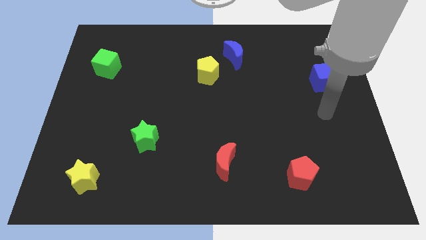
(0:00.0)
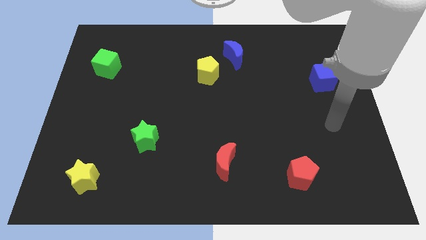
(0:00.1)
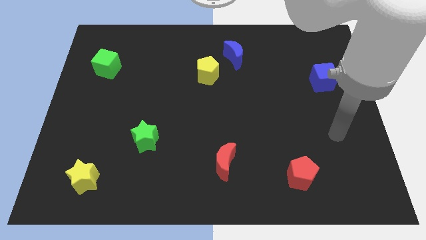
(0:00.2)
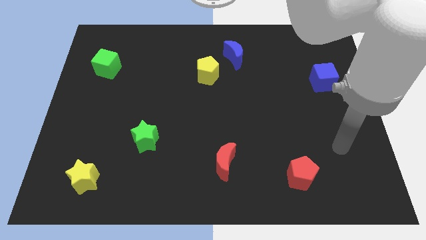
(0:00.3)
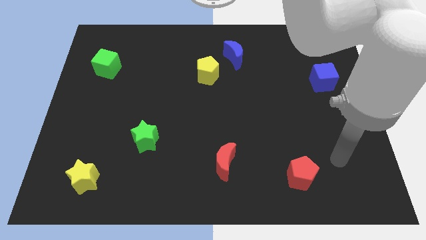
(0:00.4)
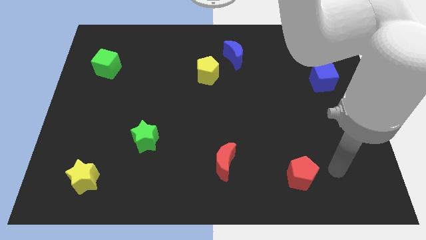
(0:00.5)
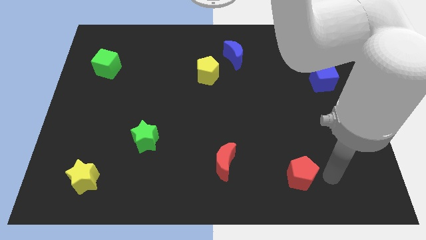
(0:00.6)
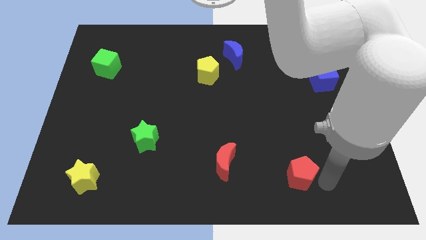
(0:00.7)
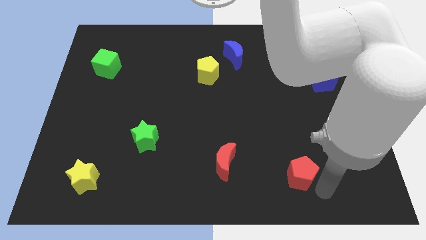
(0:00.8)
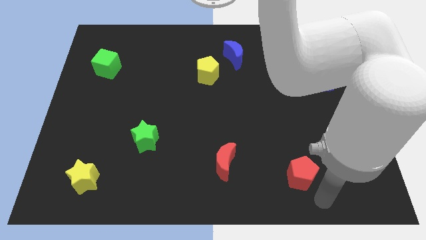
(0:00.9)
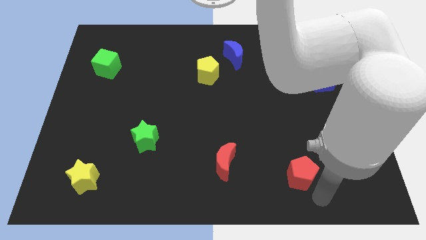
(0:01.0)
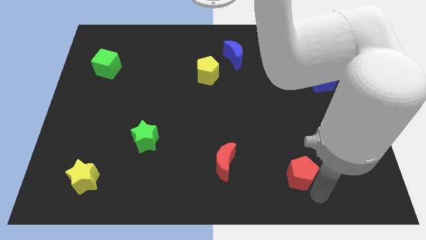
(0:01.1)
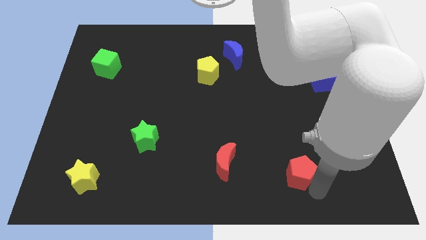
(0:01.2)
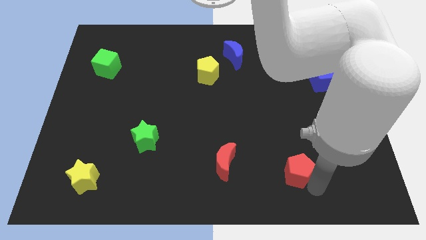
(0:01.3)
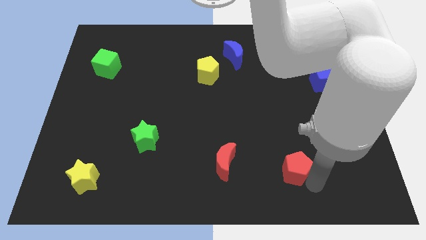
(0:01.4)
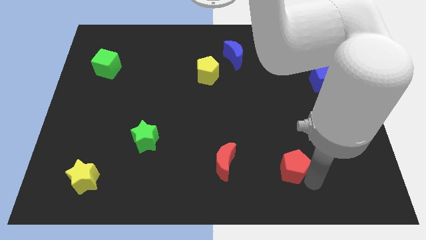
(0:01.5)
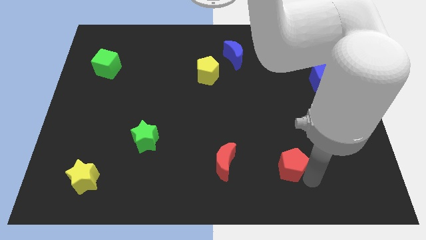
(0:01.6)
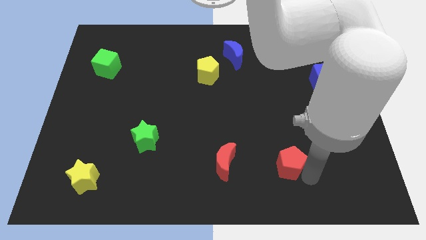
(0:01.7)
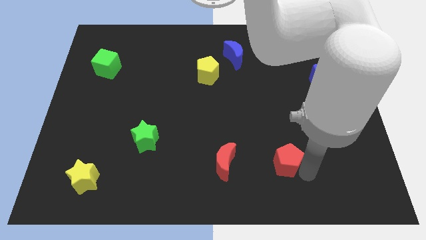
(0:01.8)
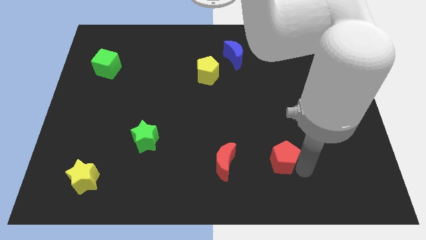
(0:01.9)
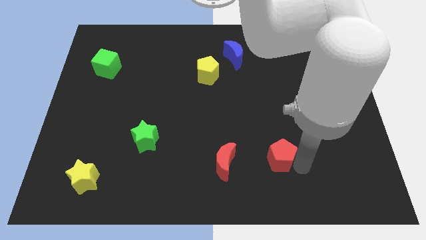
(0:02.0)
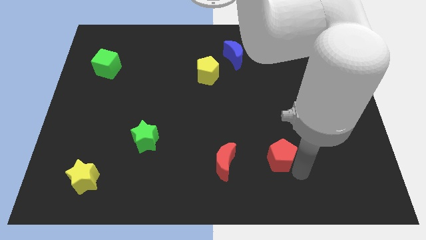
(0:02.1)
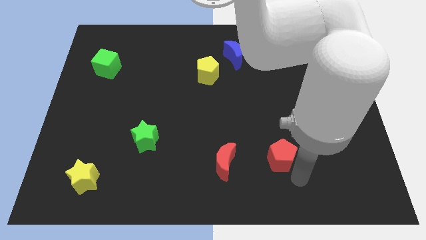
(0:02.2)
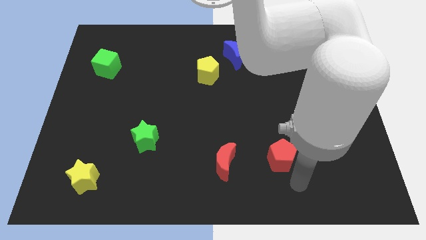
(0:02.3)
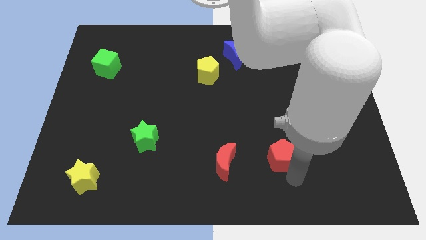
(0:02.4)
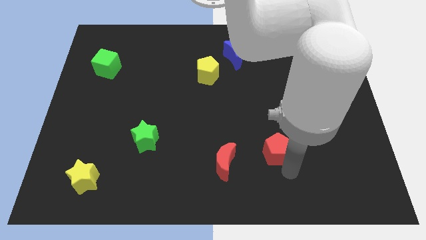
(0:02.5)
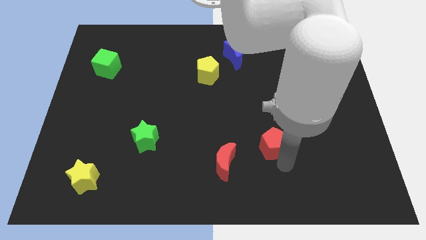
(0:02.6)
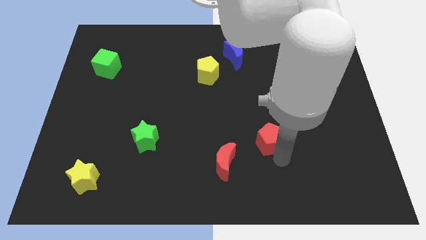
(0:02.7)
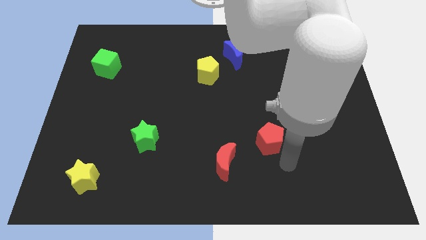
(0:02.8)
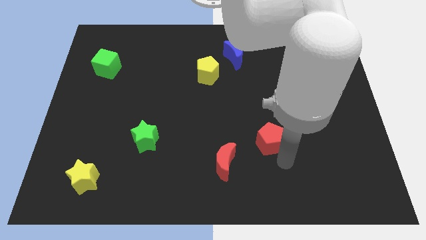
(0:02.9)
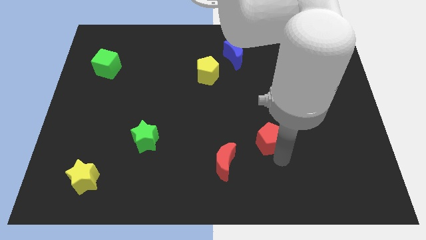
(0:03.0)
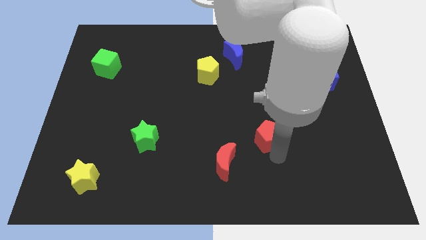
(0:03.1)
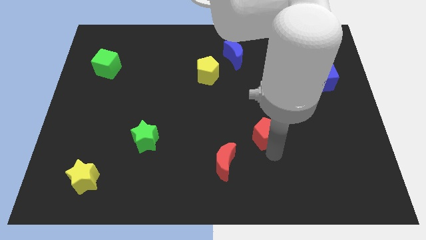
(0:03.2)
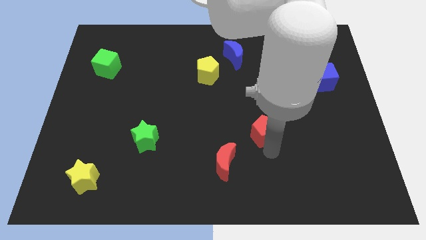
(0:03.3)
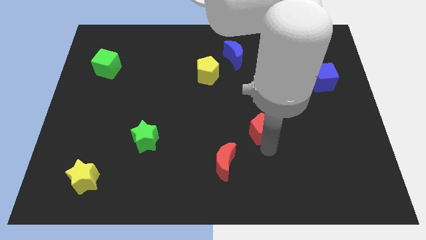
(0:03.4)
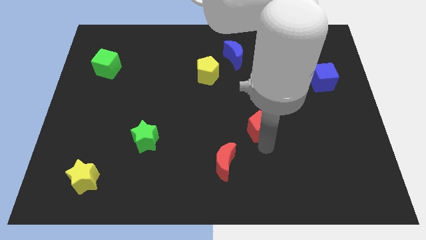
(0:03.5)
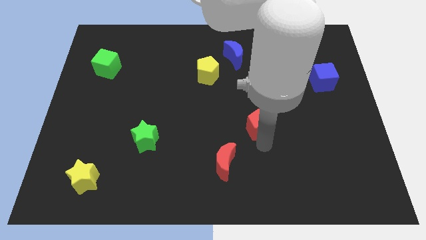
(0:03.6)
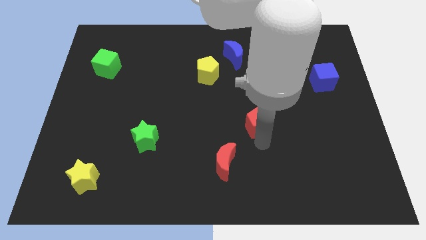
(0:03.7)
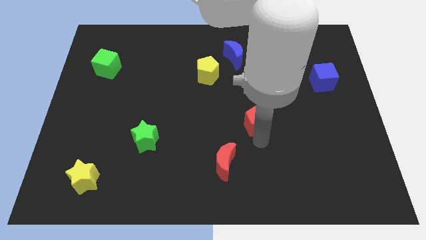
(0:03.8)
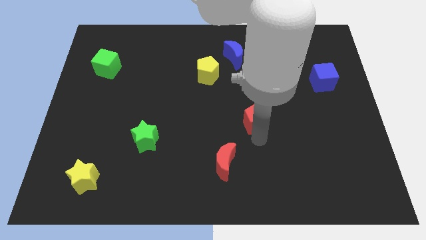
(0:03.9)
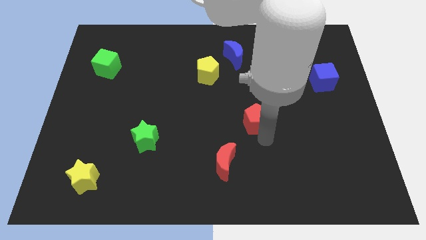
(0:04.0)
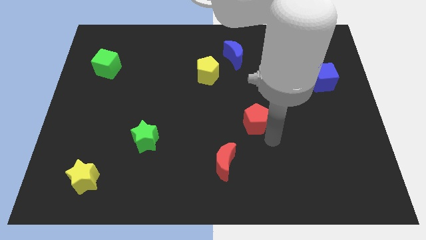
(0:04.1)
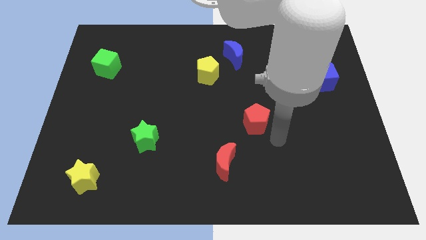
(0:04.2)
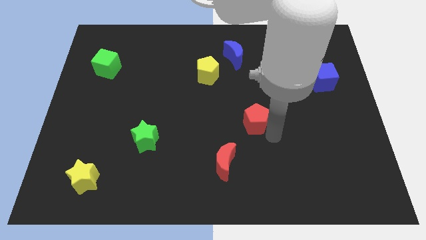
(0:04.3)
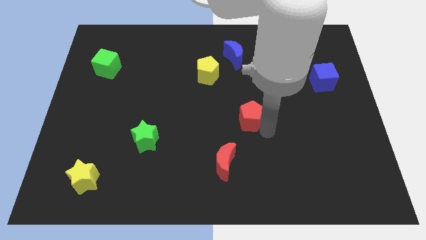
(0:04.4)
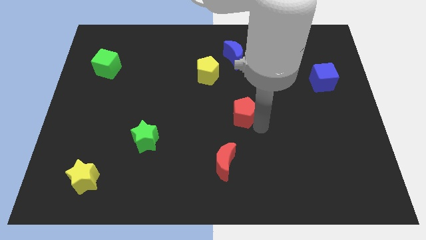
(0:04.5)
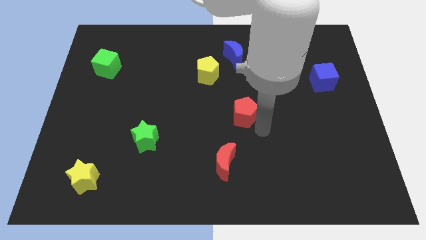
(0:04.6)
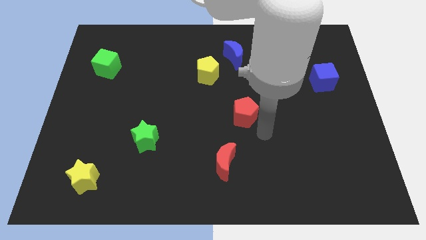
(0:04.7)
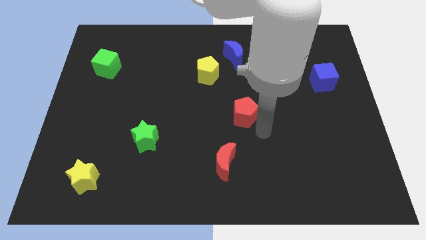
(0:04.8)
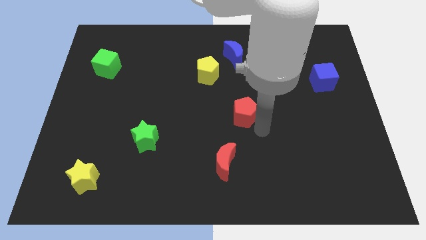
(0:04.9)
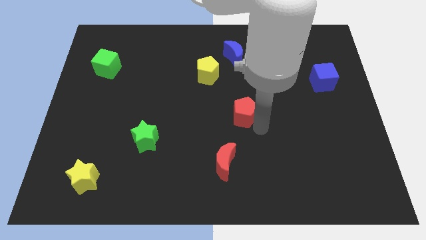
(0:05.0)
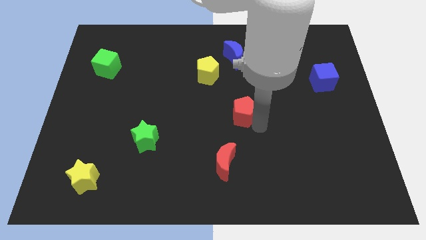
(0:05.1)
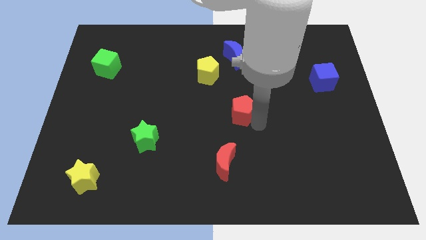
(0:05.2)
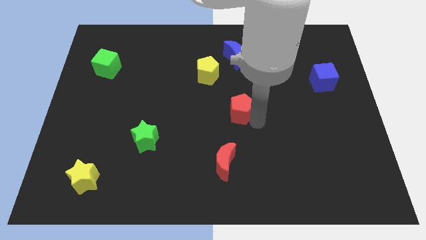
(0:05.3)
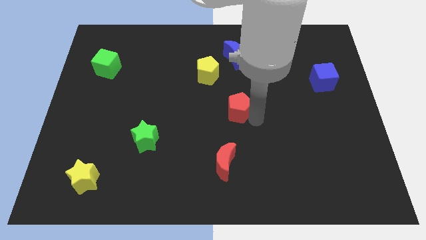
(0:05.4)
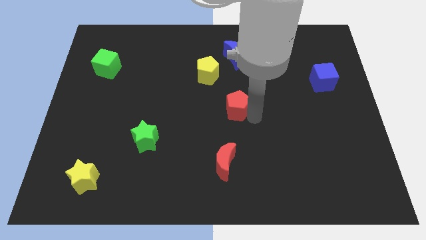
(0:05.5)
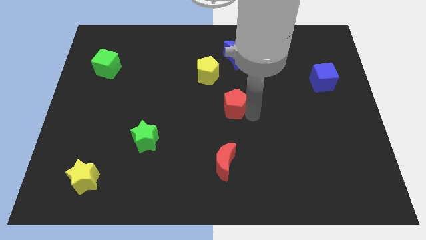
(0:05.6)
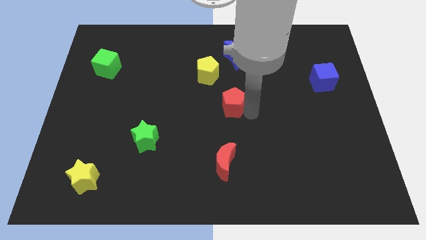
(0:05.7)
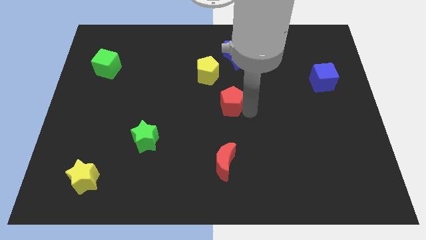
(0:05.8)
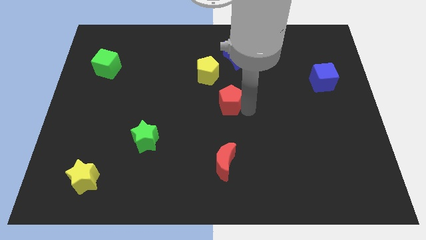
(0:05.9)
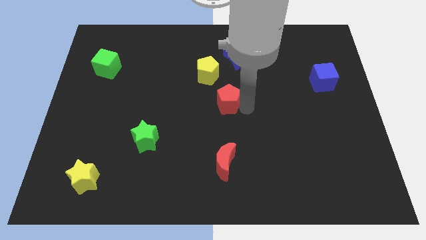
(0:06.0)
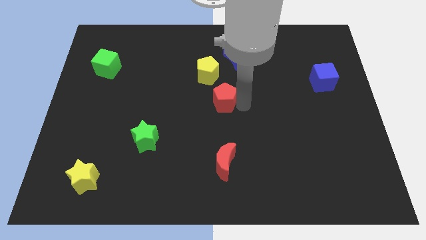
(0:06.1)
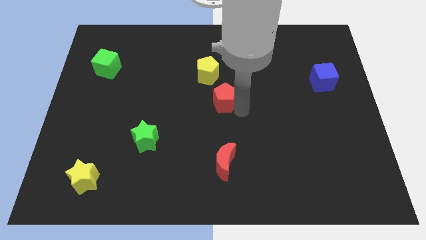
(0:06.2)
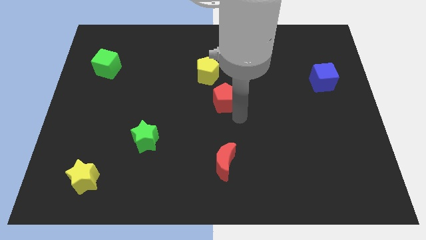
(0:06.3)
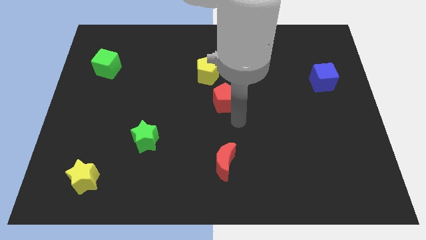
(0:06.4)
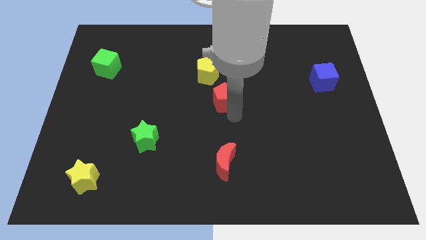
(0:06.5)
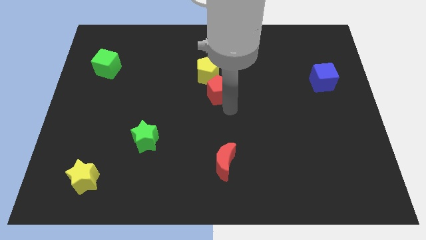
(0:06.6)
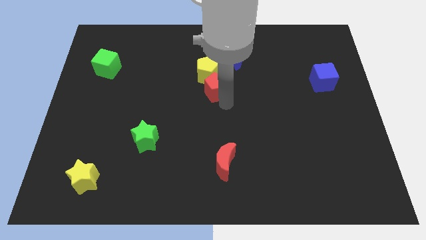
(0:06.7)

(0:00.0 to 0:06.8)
move the red pentagon towards the yellow pentagon

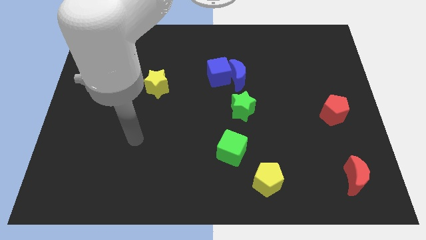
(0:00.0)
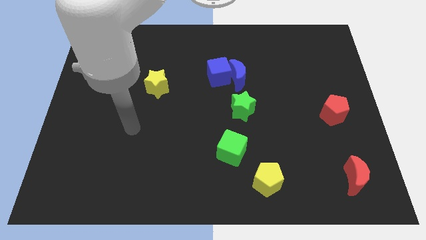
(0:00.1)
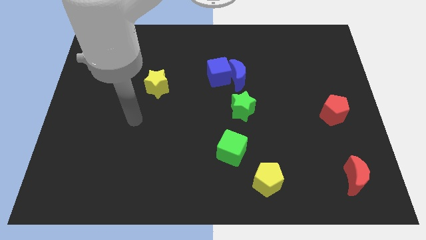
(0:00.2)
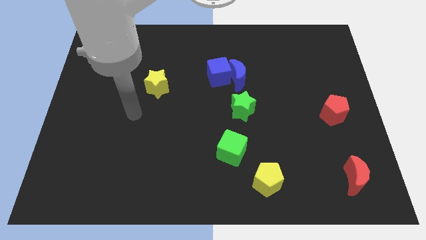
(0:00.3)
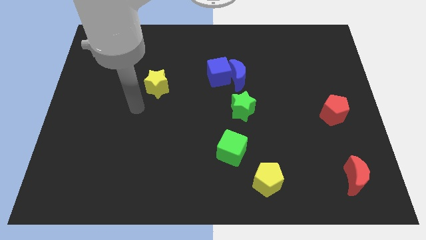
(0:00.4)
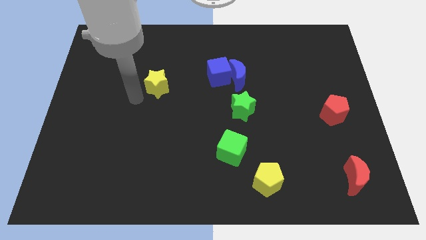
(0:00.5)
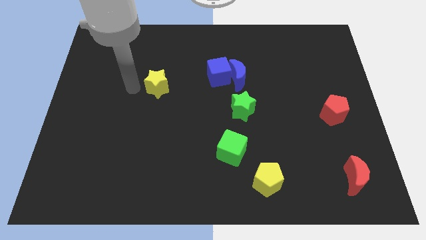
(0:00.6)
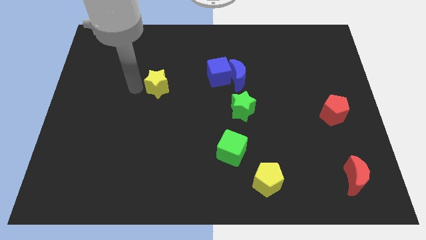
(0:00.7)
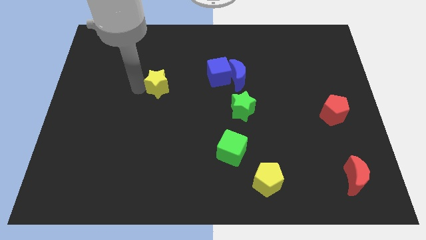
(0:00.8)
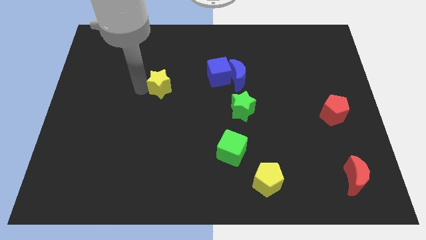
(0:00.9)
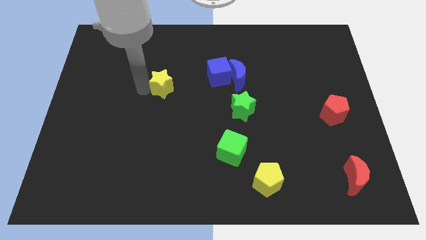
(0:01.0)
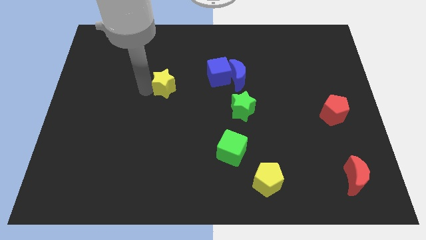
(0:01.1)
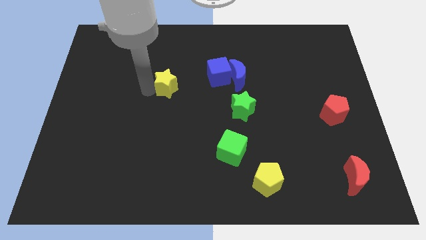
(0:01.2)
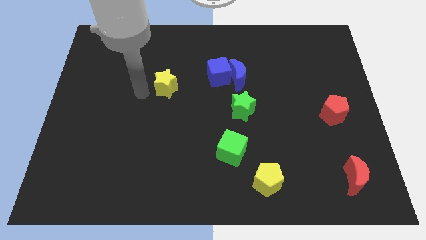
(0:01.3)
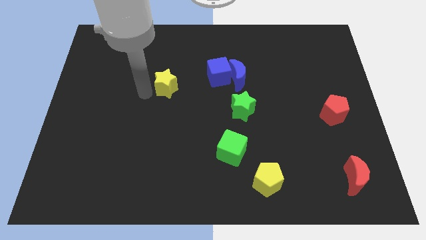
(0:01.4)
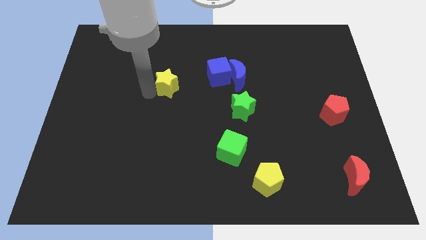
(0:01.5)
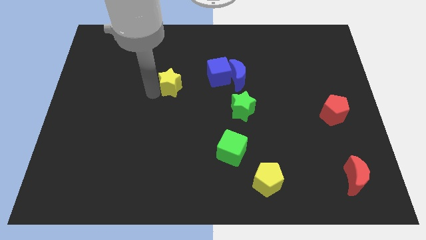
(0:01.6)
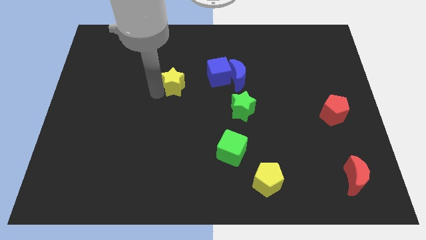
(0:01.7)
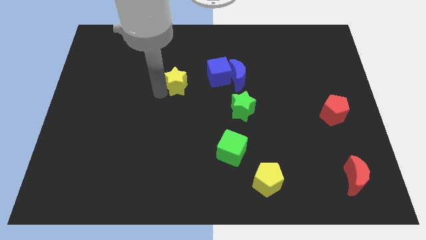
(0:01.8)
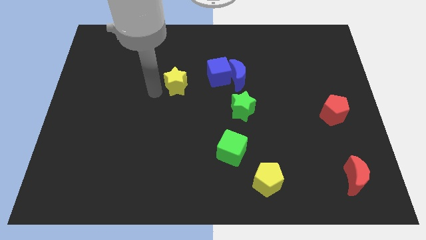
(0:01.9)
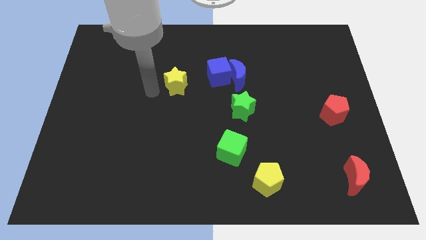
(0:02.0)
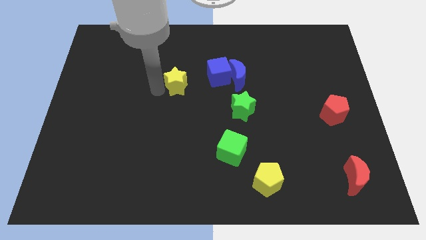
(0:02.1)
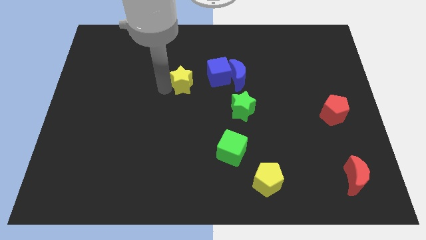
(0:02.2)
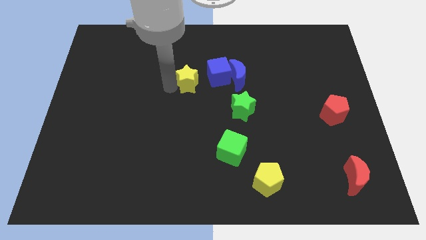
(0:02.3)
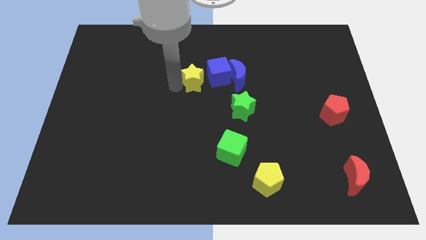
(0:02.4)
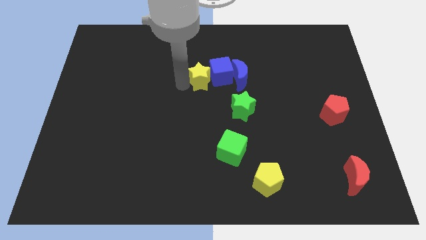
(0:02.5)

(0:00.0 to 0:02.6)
move the yellow star close to the blue cube
